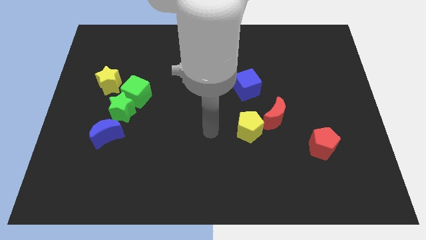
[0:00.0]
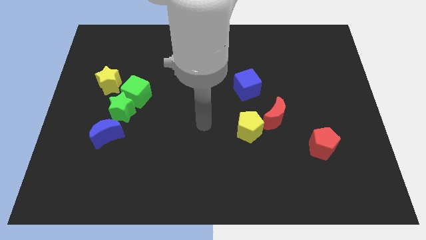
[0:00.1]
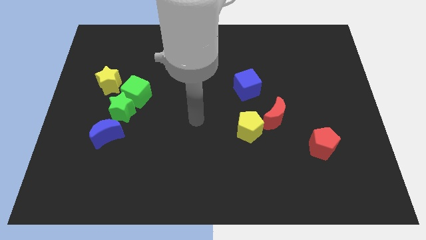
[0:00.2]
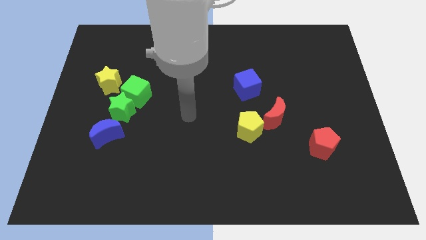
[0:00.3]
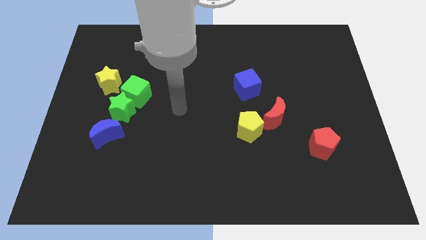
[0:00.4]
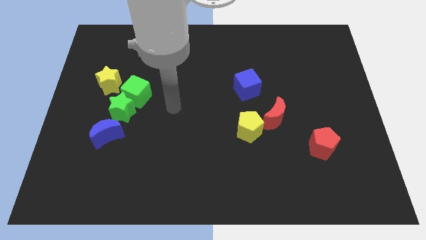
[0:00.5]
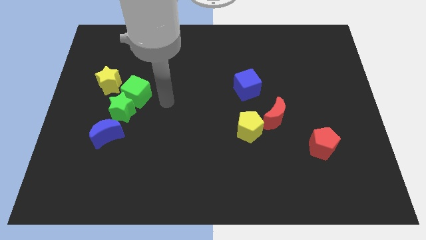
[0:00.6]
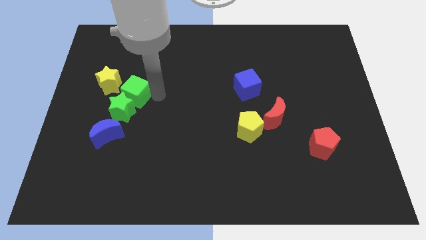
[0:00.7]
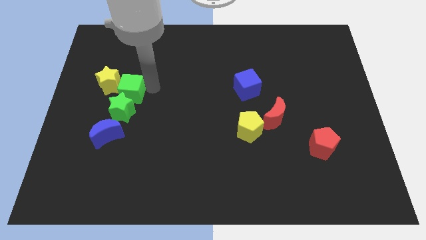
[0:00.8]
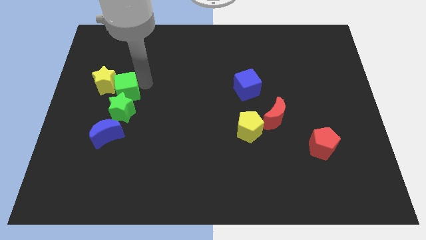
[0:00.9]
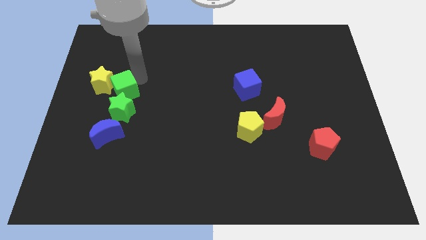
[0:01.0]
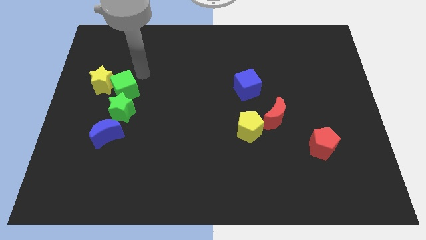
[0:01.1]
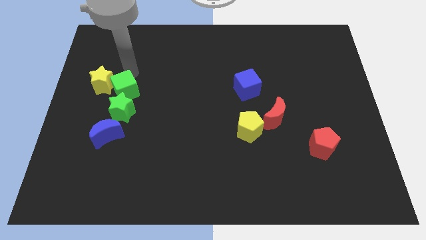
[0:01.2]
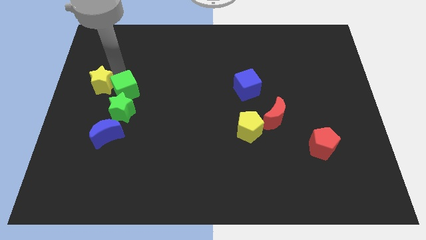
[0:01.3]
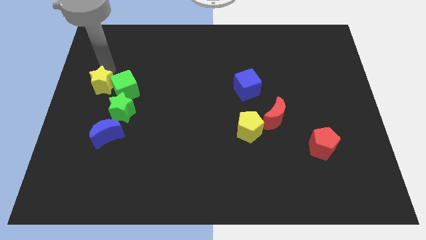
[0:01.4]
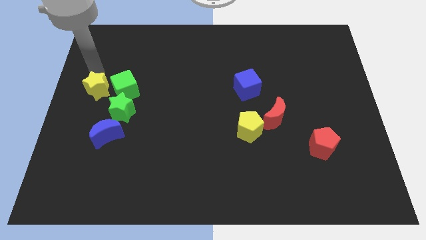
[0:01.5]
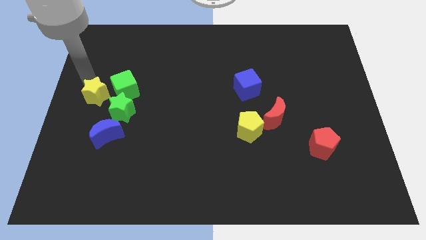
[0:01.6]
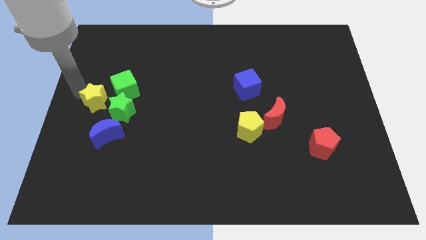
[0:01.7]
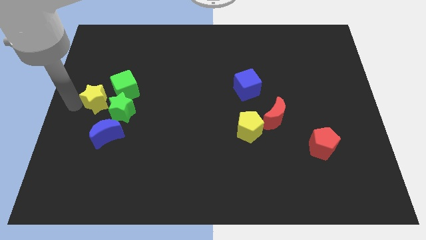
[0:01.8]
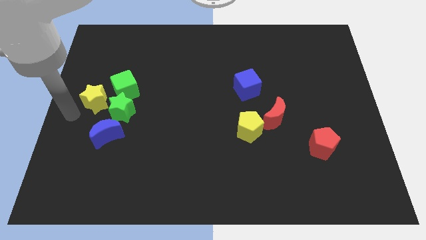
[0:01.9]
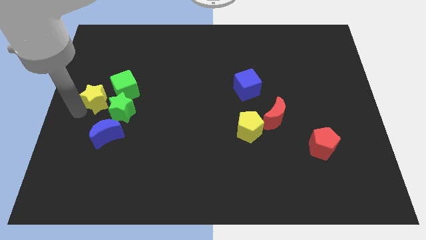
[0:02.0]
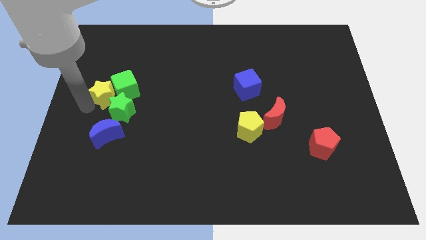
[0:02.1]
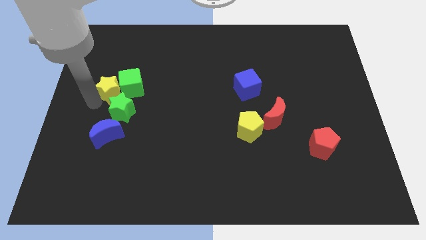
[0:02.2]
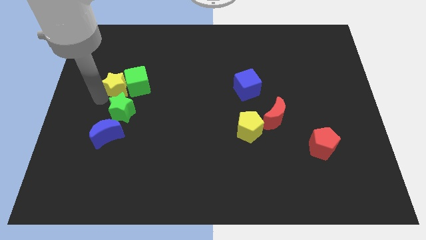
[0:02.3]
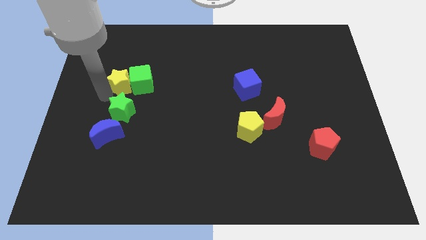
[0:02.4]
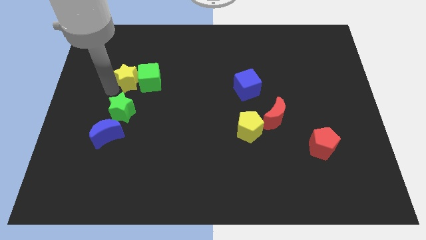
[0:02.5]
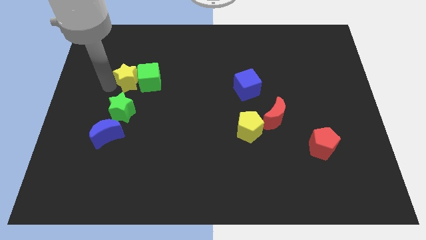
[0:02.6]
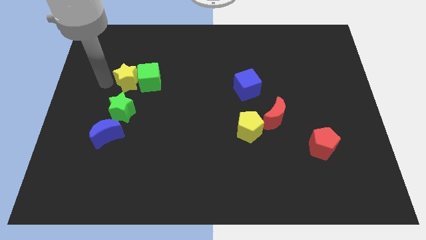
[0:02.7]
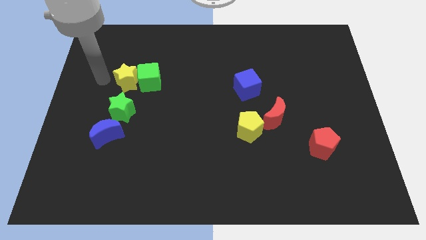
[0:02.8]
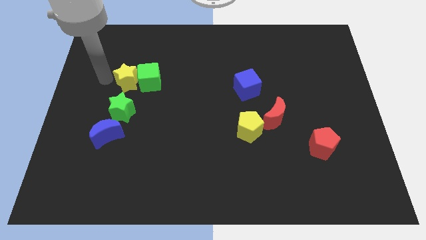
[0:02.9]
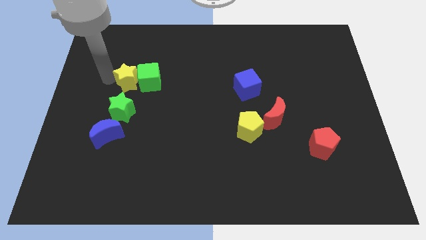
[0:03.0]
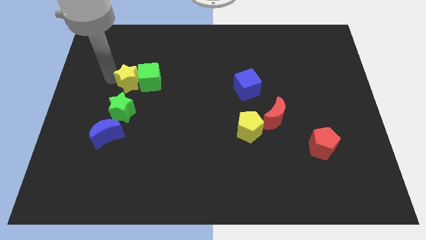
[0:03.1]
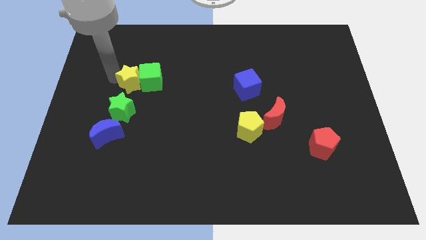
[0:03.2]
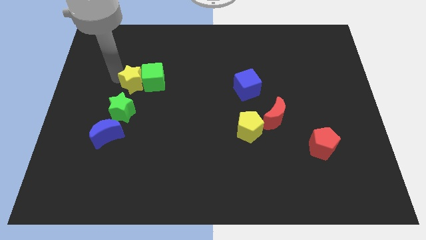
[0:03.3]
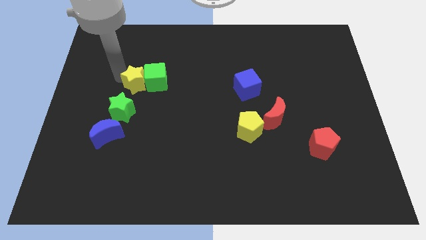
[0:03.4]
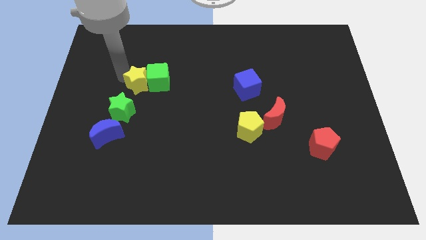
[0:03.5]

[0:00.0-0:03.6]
slightly push the yellow star to the right

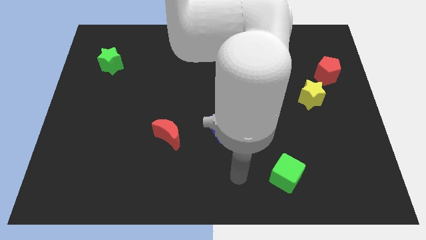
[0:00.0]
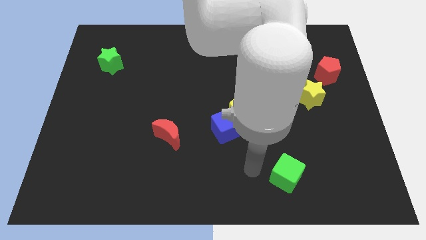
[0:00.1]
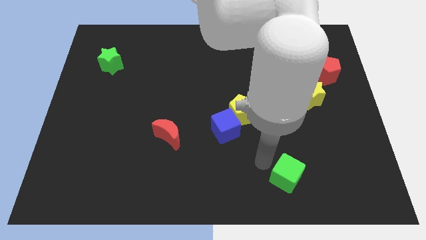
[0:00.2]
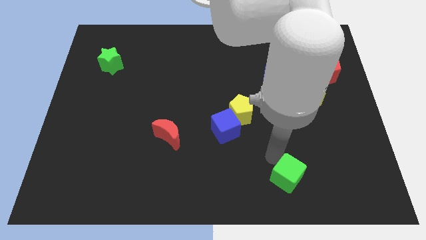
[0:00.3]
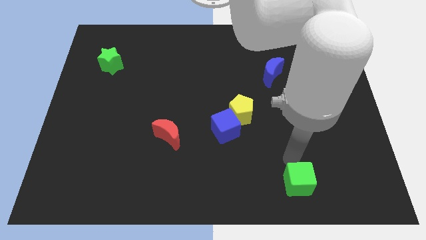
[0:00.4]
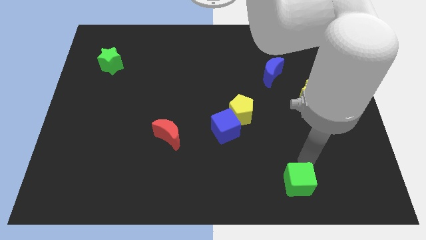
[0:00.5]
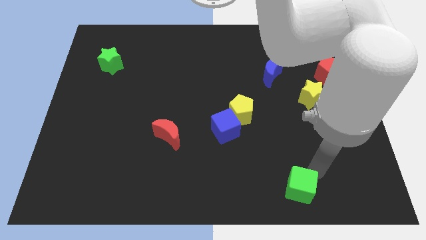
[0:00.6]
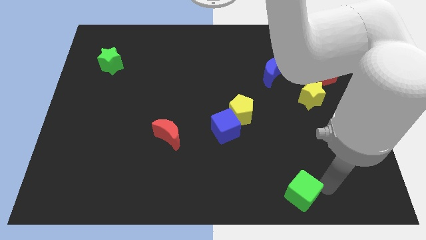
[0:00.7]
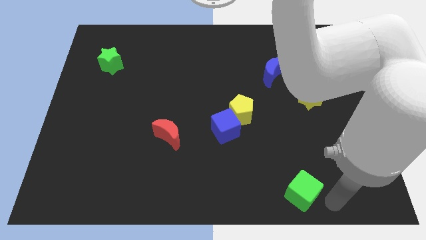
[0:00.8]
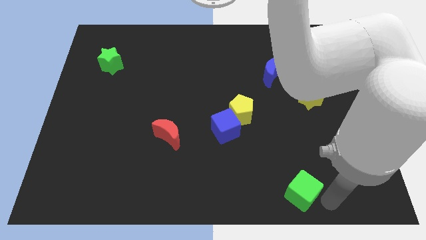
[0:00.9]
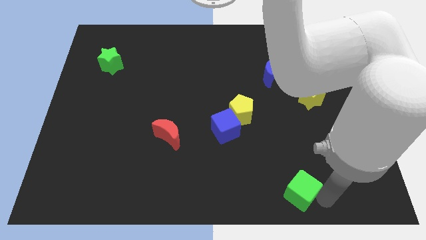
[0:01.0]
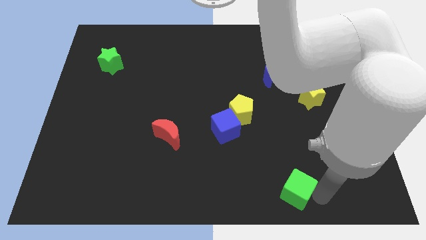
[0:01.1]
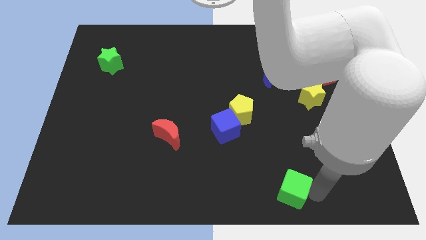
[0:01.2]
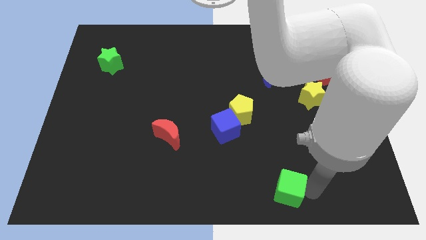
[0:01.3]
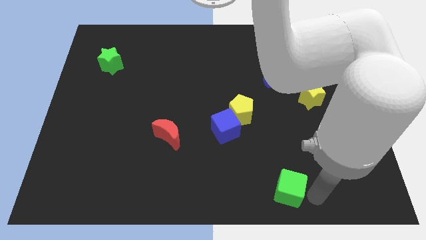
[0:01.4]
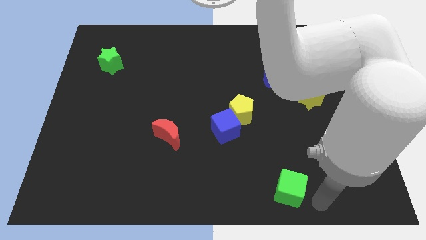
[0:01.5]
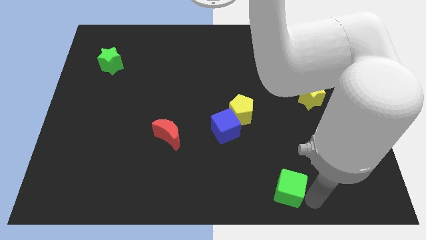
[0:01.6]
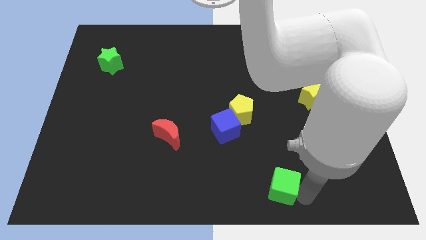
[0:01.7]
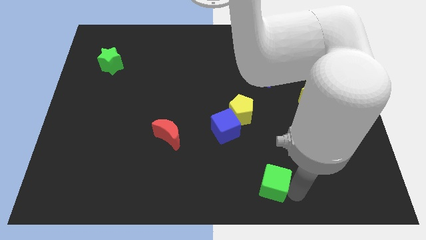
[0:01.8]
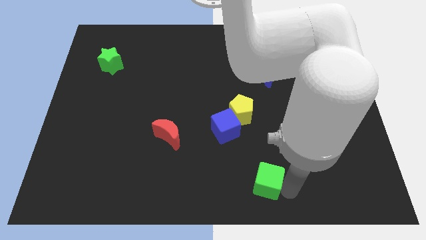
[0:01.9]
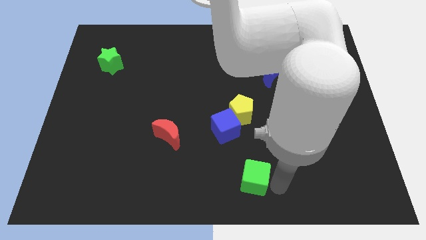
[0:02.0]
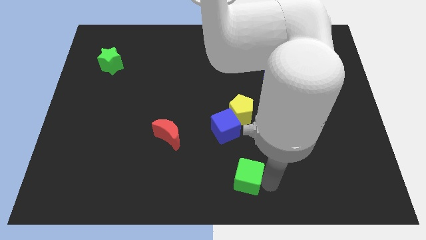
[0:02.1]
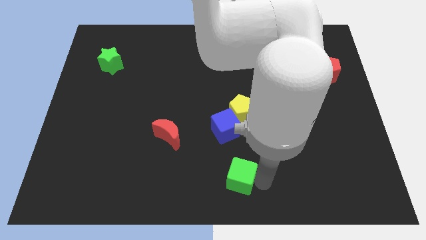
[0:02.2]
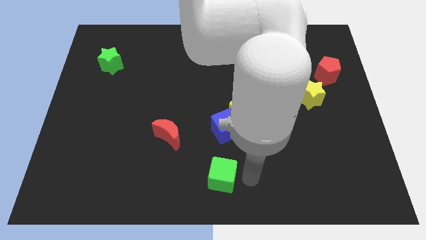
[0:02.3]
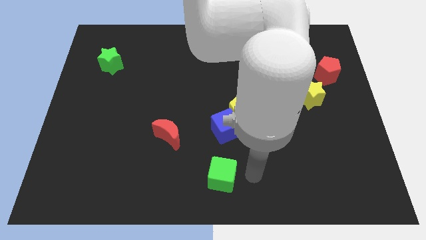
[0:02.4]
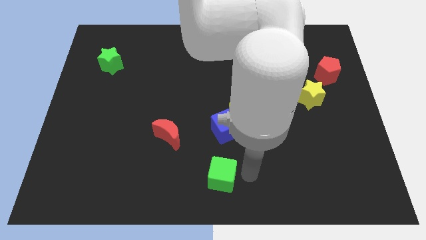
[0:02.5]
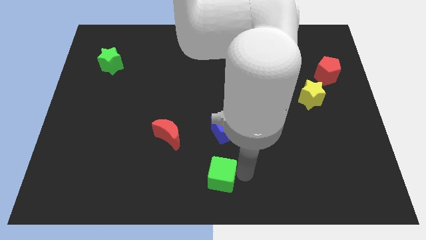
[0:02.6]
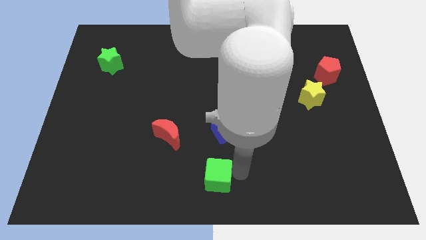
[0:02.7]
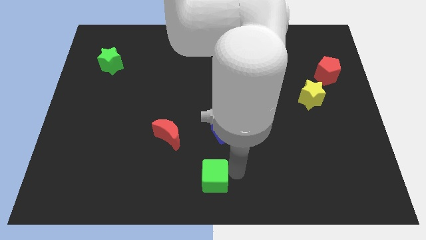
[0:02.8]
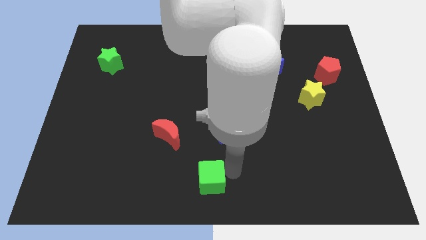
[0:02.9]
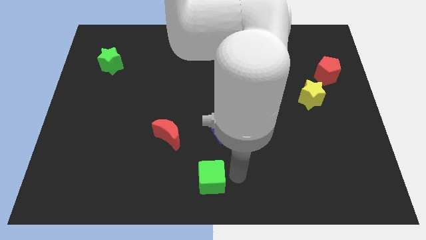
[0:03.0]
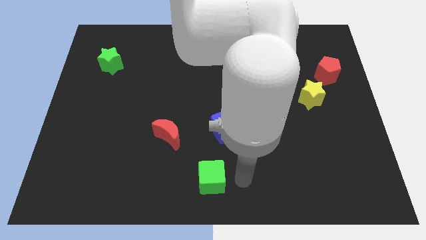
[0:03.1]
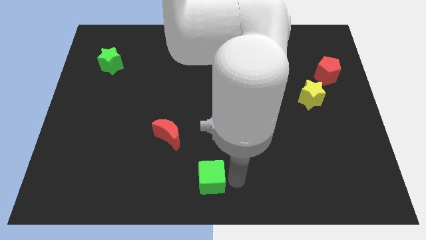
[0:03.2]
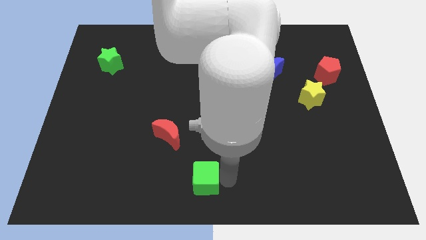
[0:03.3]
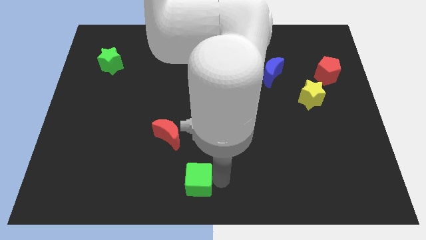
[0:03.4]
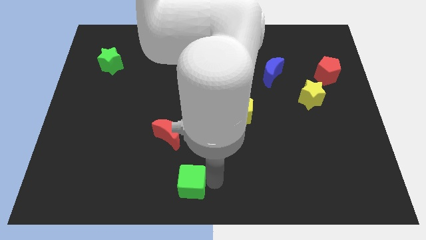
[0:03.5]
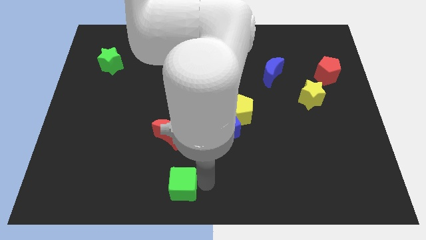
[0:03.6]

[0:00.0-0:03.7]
move the green cube to the left

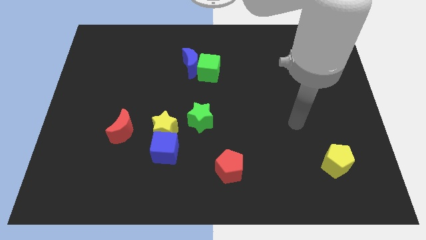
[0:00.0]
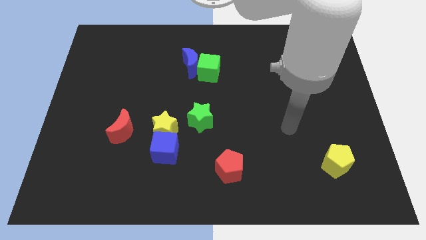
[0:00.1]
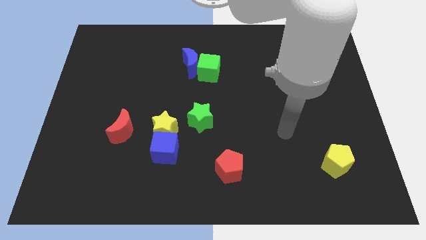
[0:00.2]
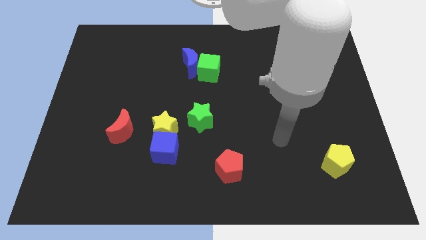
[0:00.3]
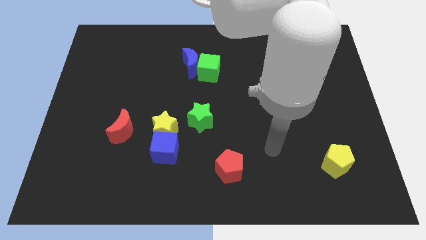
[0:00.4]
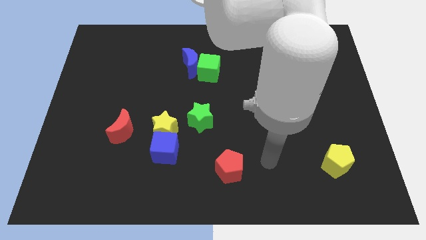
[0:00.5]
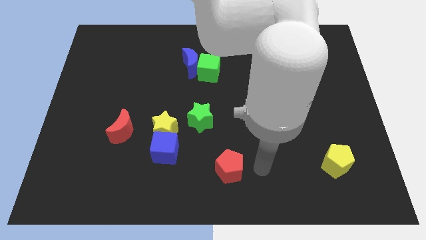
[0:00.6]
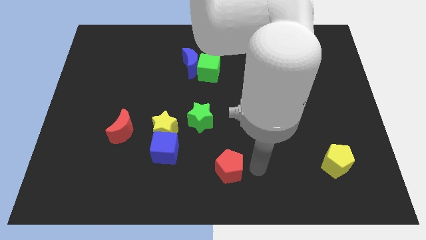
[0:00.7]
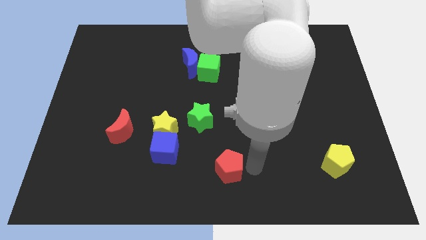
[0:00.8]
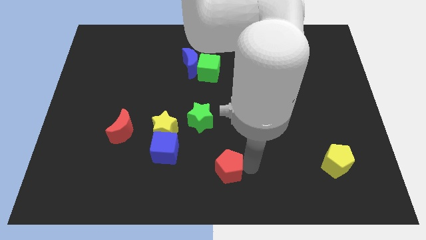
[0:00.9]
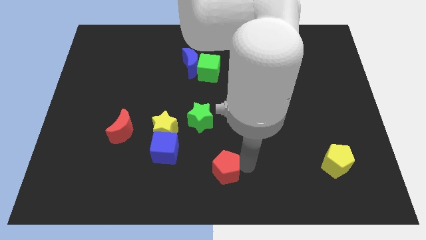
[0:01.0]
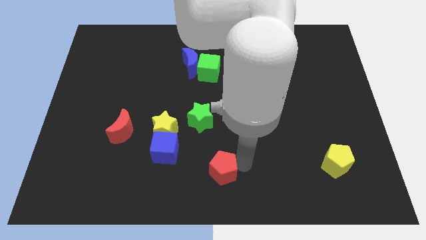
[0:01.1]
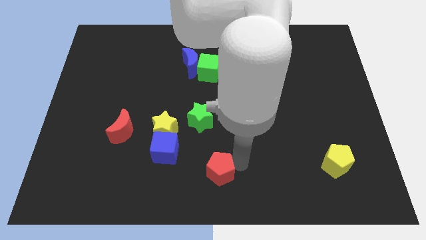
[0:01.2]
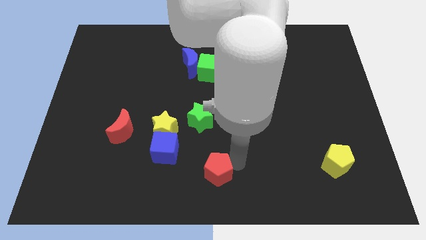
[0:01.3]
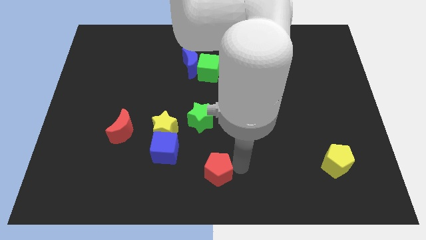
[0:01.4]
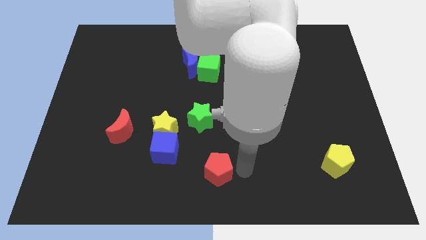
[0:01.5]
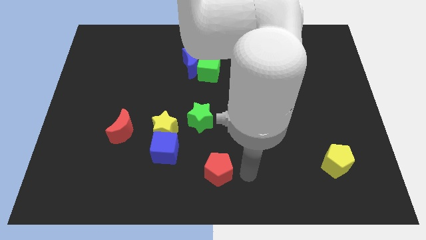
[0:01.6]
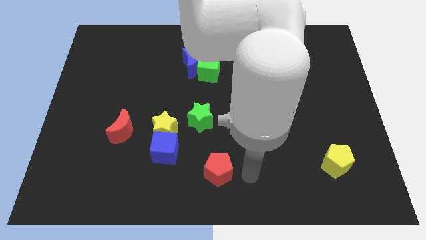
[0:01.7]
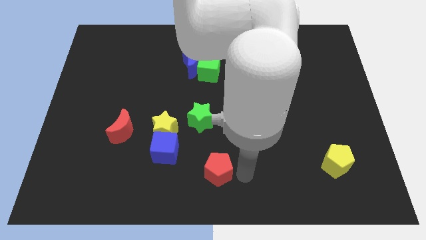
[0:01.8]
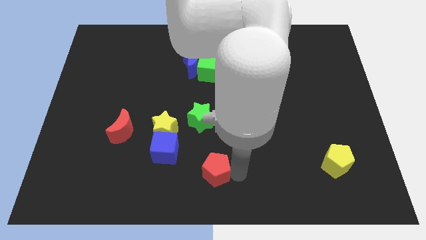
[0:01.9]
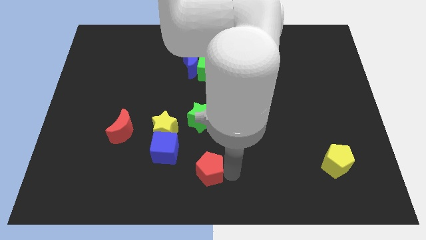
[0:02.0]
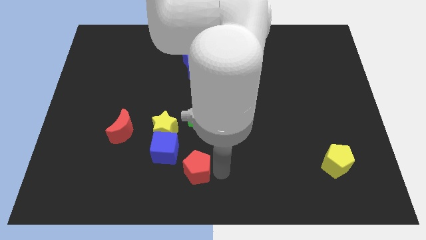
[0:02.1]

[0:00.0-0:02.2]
move the red pentagon a little bit to the left
